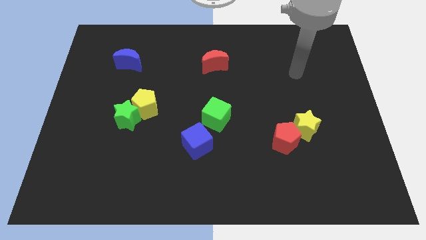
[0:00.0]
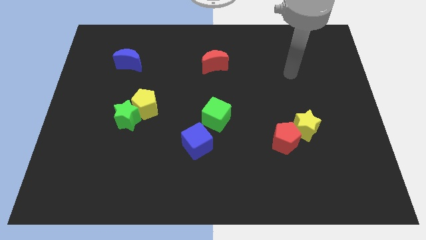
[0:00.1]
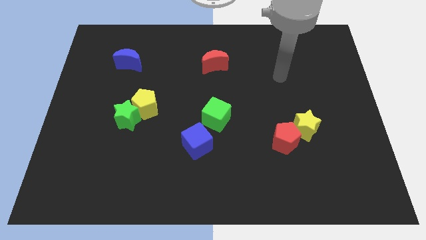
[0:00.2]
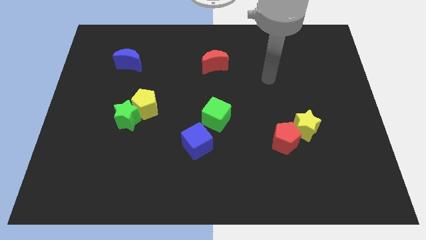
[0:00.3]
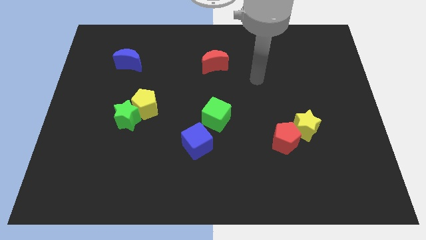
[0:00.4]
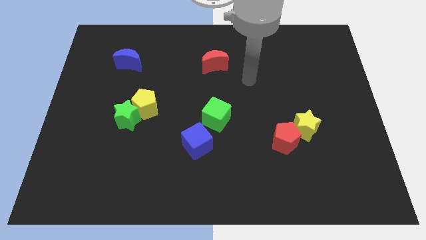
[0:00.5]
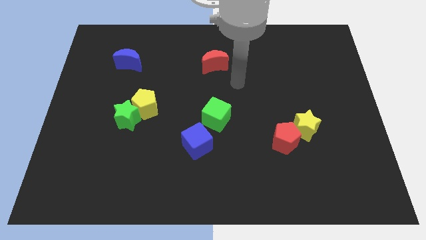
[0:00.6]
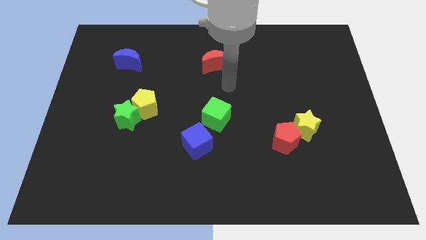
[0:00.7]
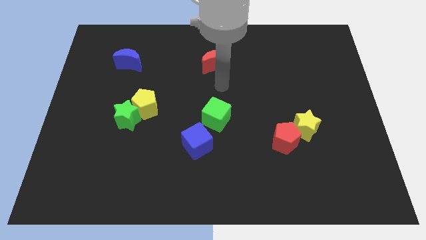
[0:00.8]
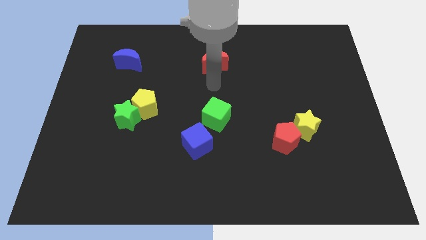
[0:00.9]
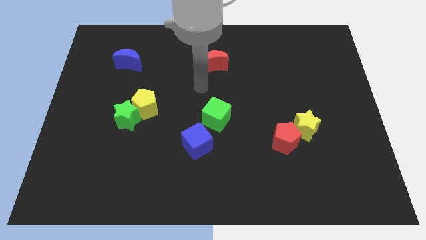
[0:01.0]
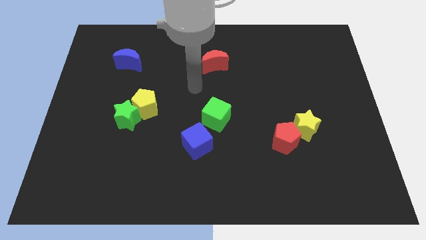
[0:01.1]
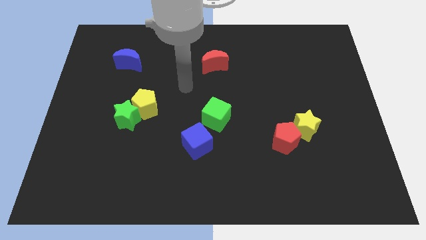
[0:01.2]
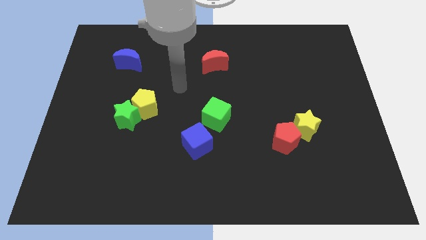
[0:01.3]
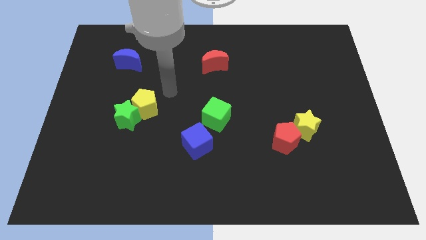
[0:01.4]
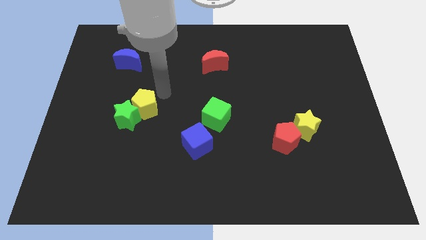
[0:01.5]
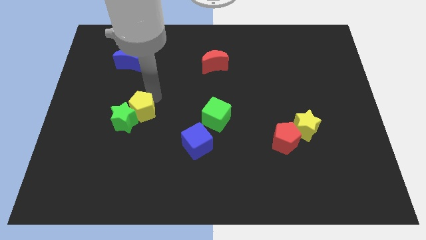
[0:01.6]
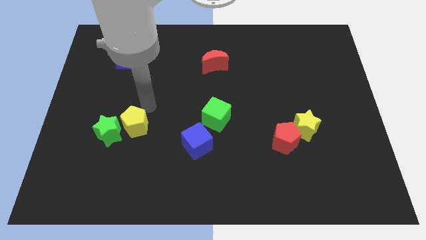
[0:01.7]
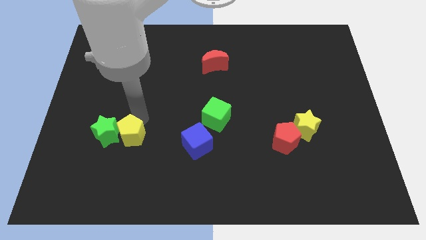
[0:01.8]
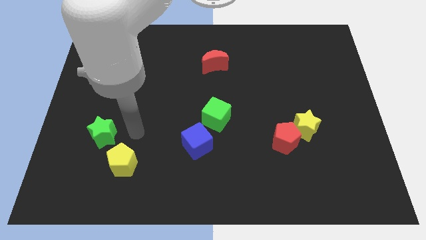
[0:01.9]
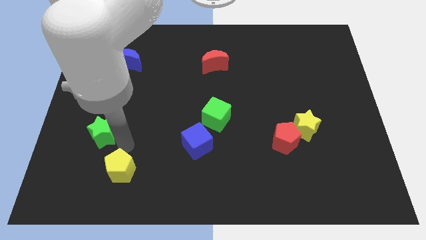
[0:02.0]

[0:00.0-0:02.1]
separate the green star from the yellow pentagon

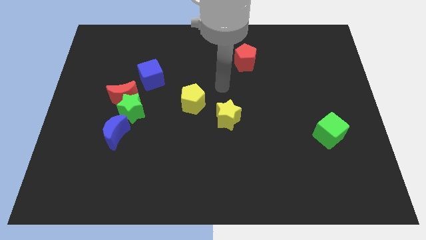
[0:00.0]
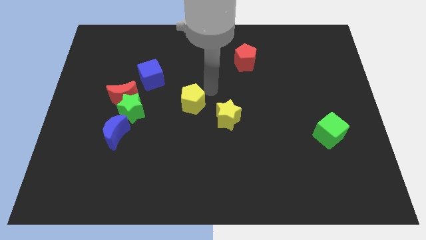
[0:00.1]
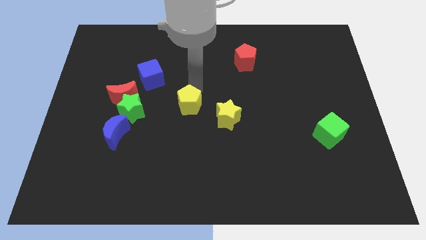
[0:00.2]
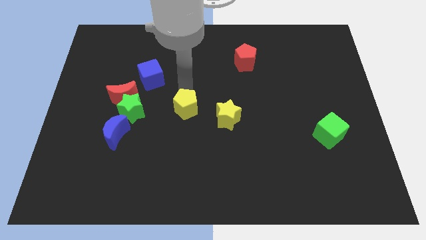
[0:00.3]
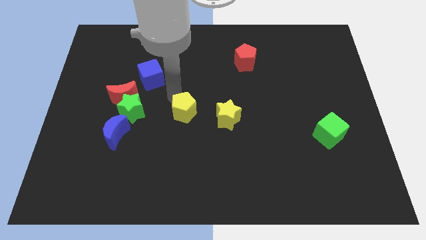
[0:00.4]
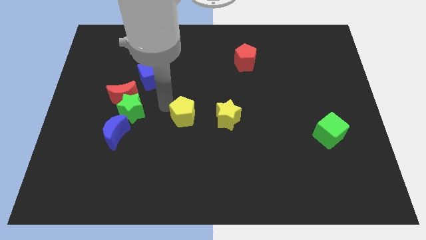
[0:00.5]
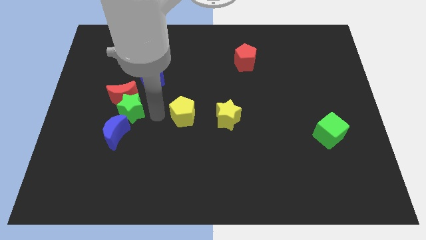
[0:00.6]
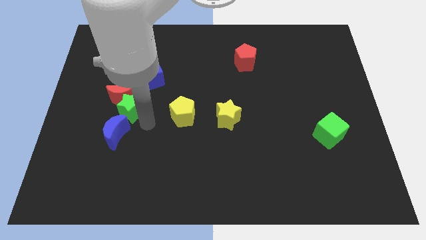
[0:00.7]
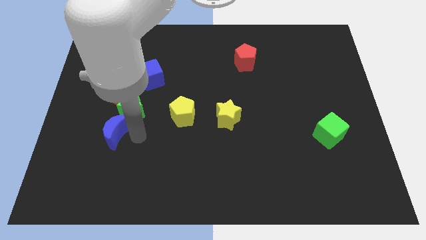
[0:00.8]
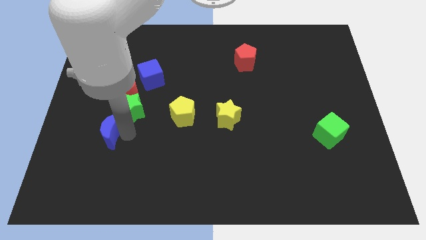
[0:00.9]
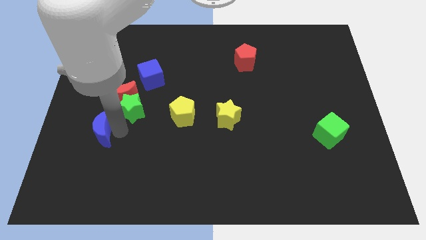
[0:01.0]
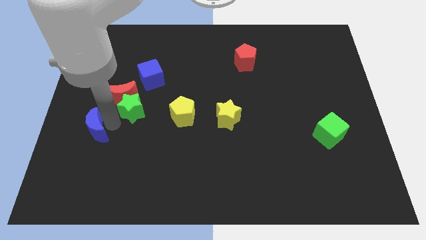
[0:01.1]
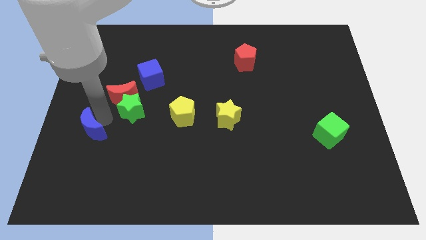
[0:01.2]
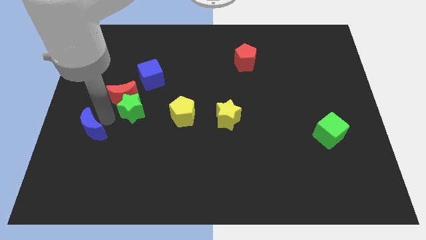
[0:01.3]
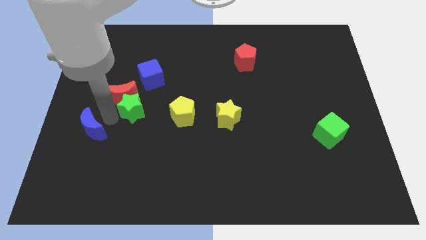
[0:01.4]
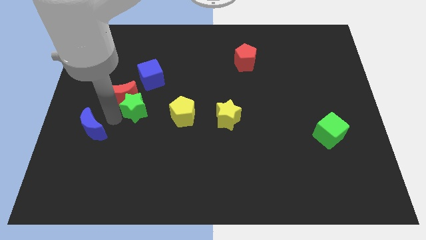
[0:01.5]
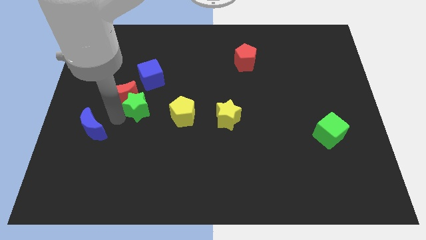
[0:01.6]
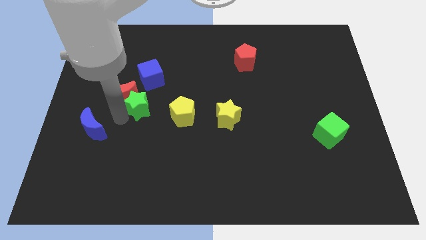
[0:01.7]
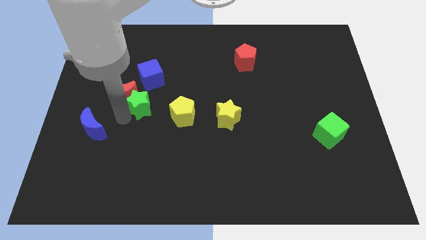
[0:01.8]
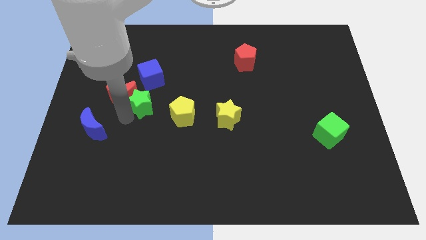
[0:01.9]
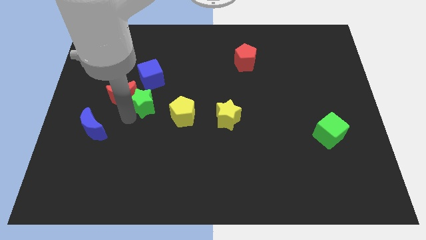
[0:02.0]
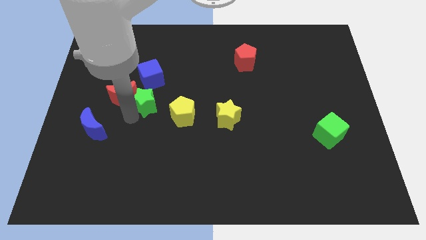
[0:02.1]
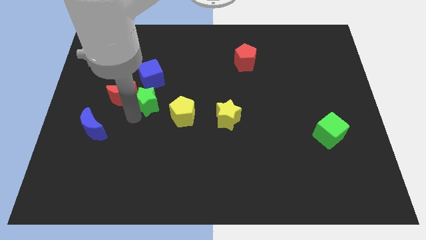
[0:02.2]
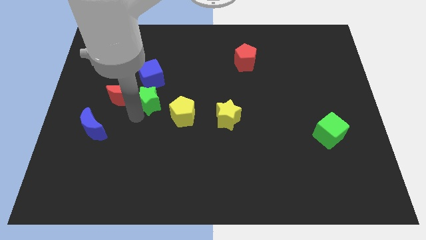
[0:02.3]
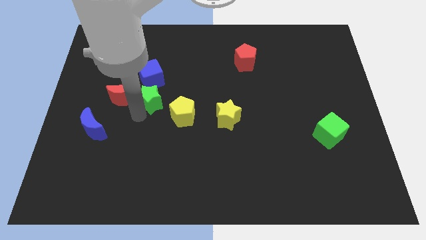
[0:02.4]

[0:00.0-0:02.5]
separate the green star from the red moon and blue moon

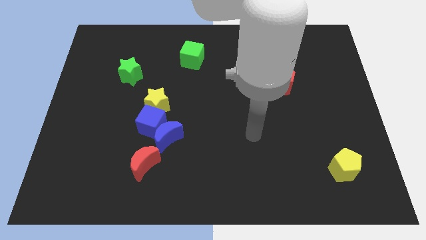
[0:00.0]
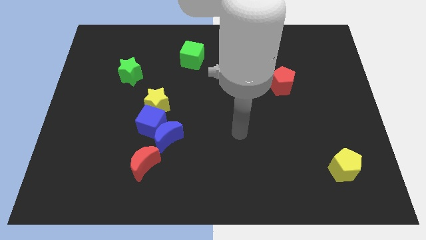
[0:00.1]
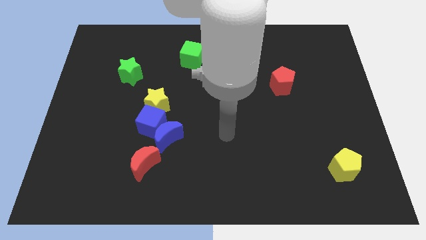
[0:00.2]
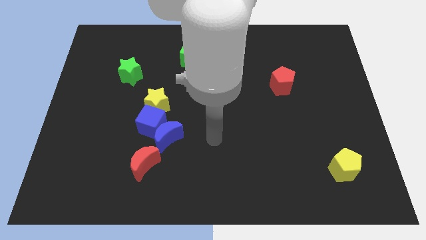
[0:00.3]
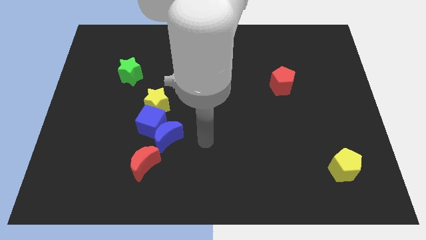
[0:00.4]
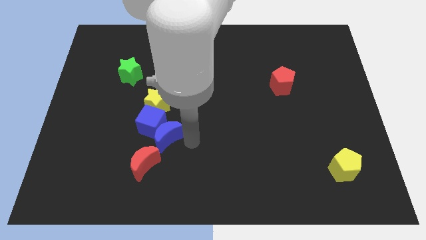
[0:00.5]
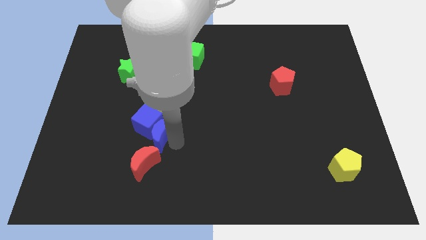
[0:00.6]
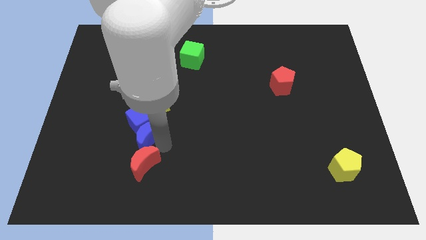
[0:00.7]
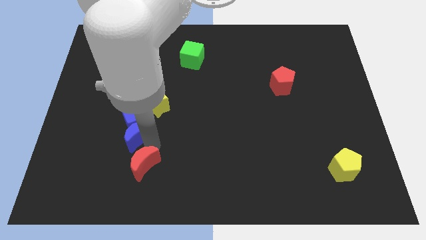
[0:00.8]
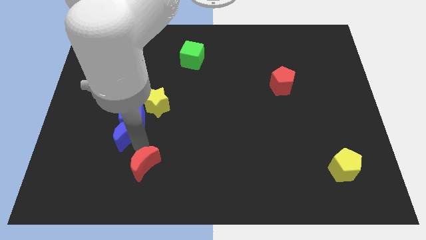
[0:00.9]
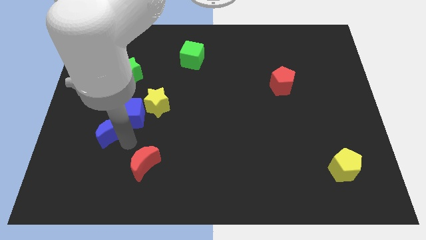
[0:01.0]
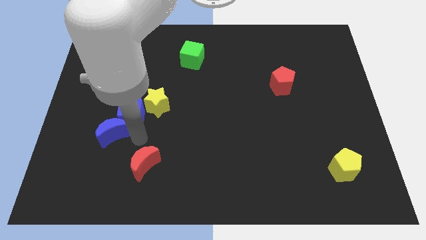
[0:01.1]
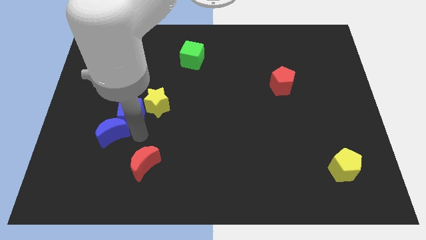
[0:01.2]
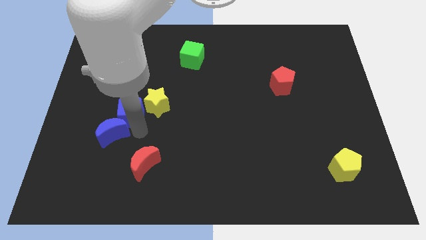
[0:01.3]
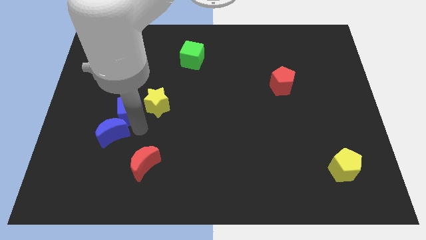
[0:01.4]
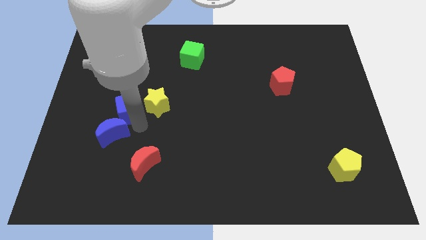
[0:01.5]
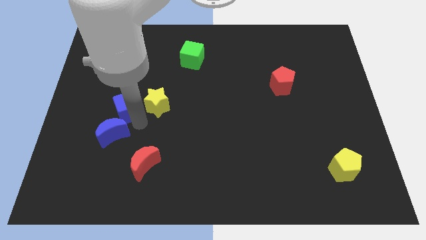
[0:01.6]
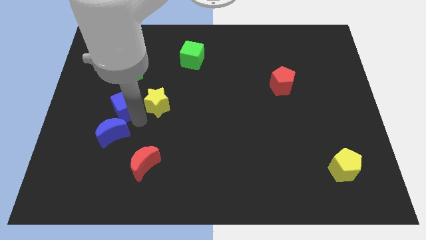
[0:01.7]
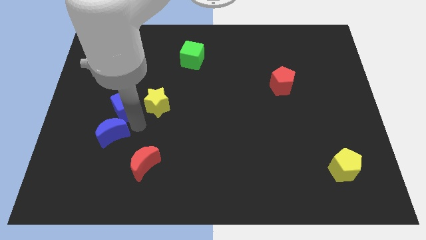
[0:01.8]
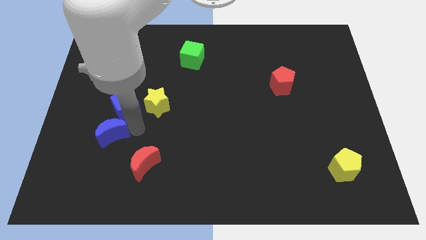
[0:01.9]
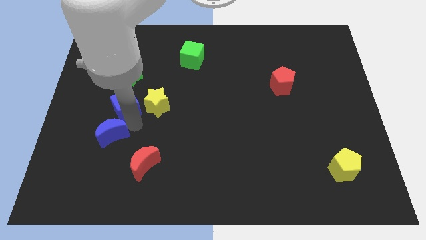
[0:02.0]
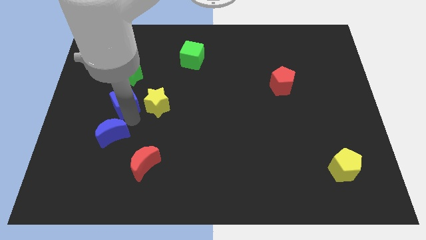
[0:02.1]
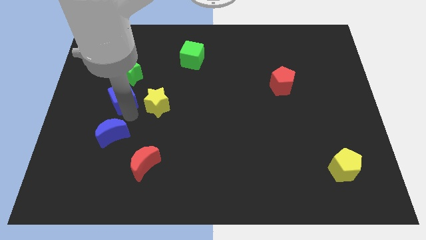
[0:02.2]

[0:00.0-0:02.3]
separate the blue cube from the blue moon, yellow star, and red moon

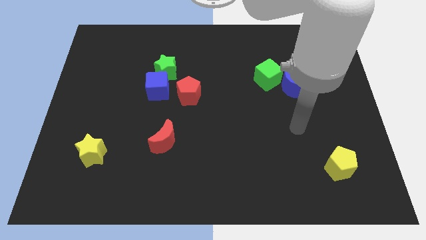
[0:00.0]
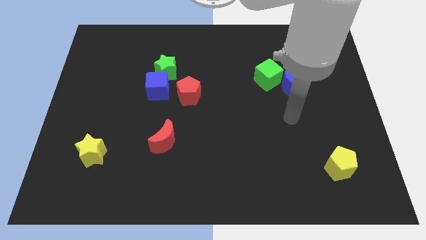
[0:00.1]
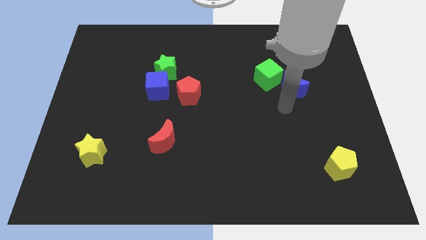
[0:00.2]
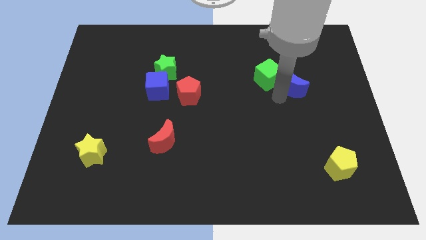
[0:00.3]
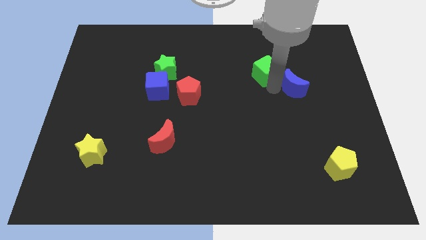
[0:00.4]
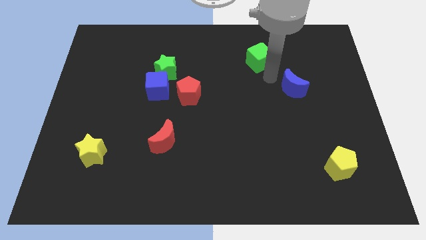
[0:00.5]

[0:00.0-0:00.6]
separate the blue moon from the green cube

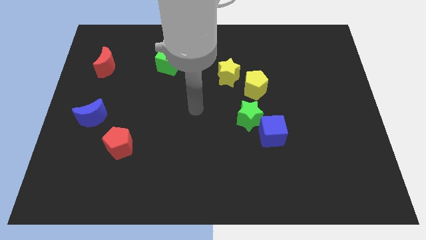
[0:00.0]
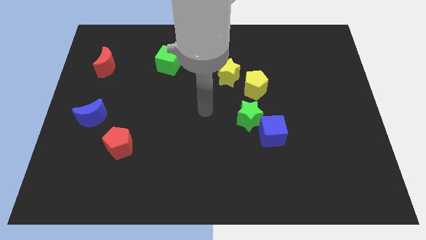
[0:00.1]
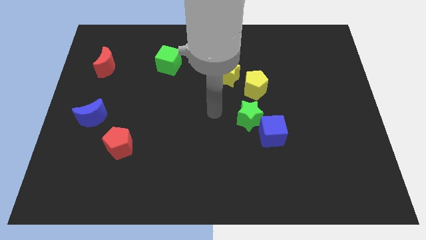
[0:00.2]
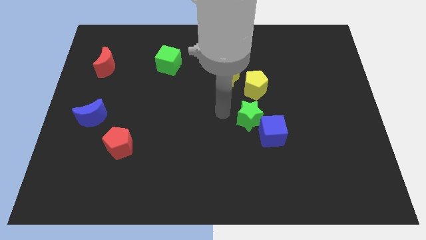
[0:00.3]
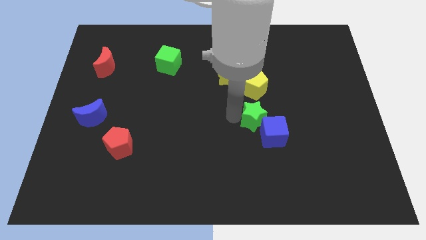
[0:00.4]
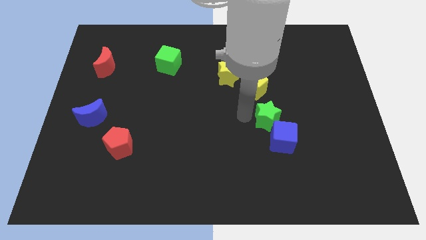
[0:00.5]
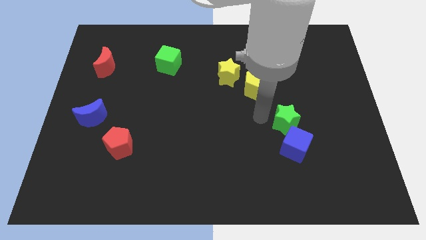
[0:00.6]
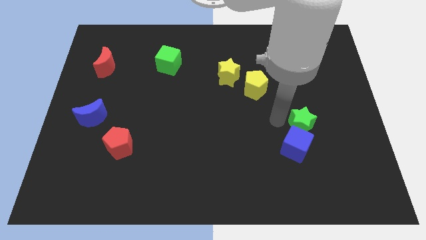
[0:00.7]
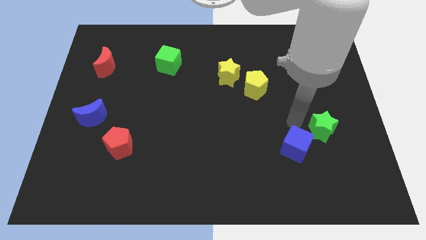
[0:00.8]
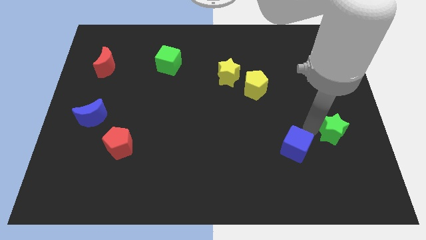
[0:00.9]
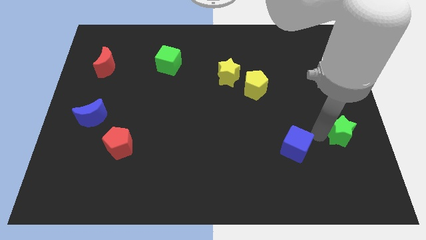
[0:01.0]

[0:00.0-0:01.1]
separate the blue cube from the green star

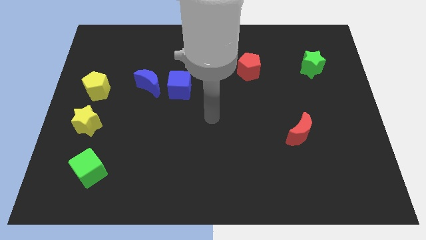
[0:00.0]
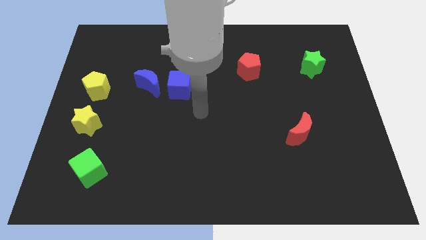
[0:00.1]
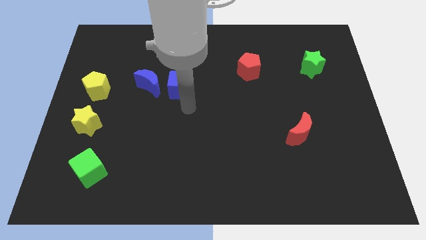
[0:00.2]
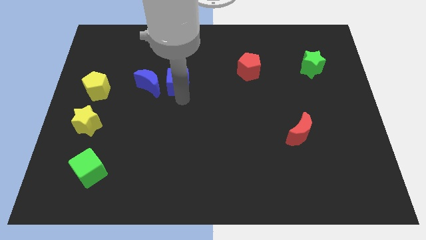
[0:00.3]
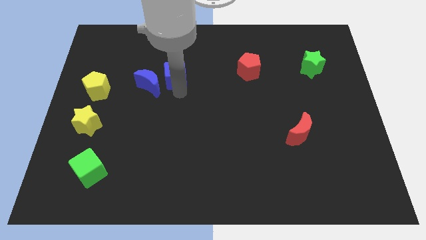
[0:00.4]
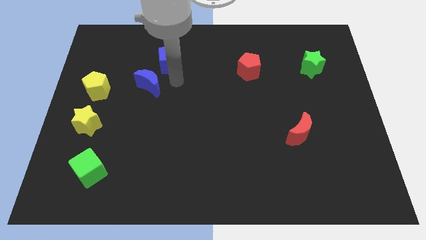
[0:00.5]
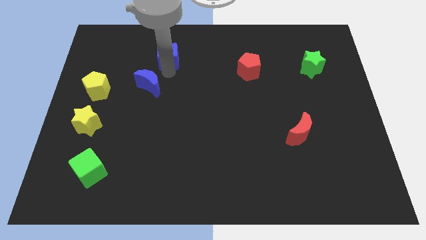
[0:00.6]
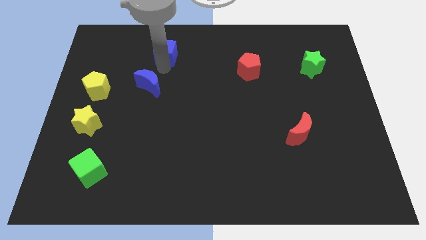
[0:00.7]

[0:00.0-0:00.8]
pull the blue moon apart from the blue cube
